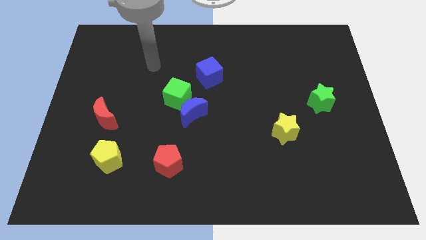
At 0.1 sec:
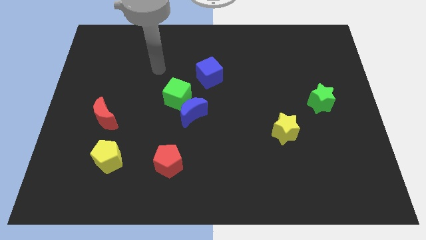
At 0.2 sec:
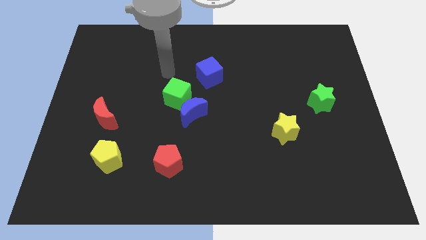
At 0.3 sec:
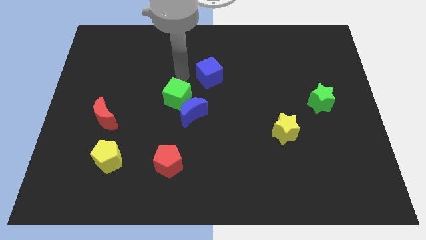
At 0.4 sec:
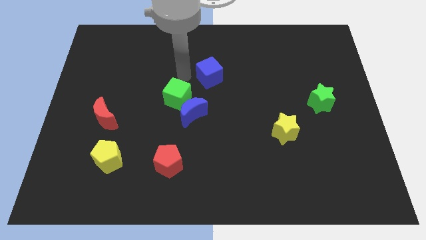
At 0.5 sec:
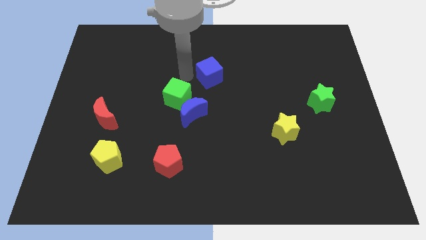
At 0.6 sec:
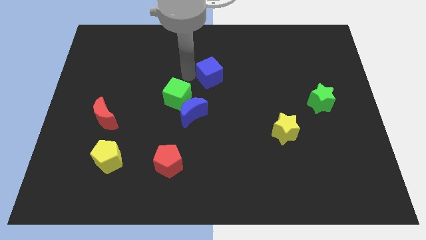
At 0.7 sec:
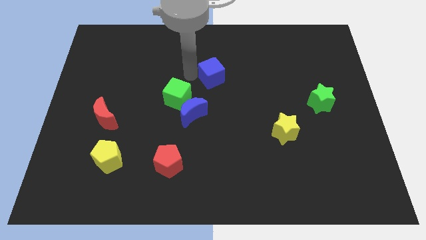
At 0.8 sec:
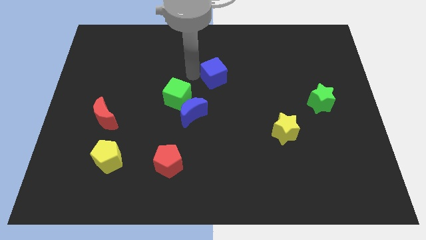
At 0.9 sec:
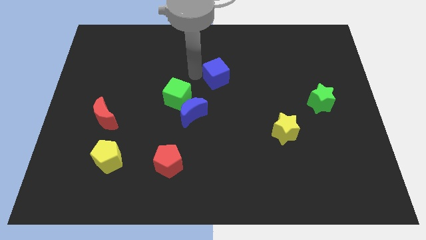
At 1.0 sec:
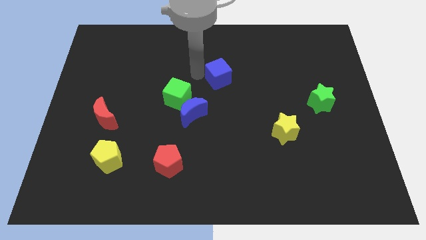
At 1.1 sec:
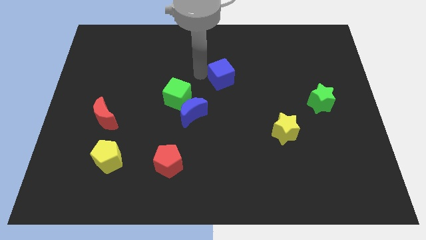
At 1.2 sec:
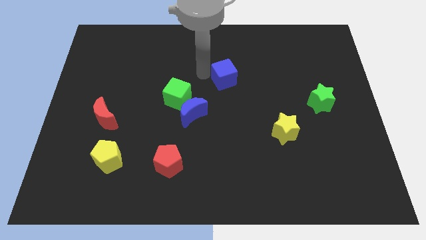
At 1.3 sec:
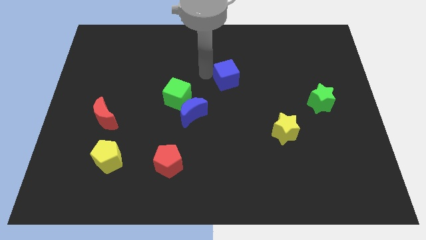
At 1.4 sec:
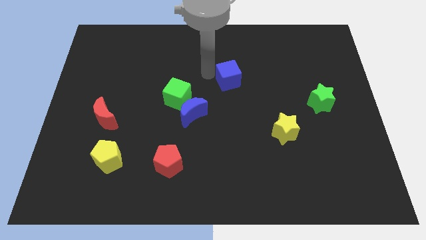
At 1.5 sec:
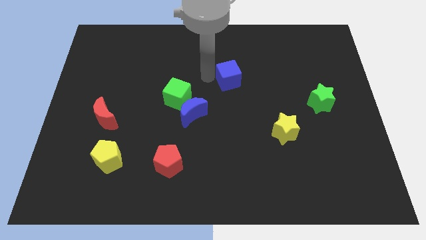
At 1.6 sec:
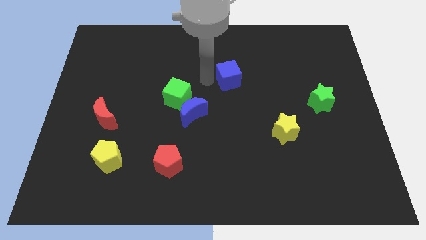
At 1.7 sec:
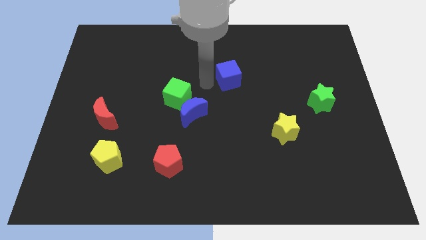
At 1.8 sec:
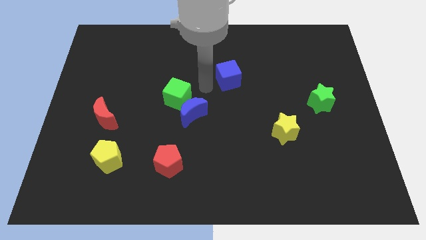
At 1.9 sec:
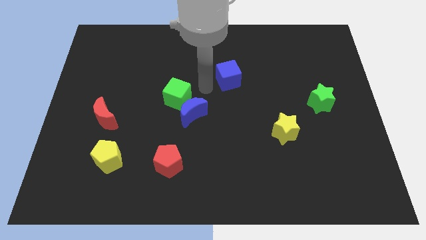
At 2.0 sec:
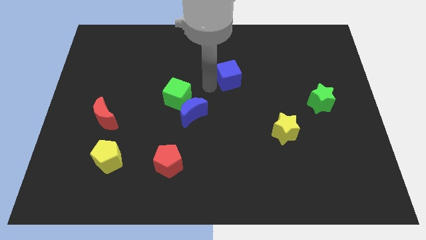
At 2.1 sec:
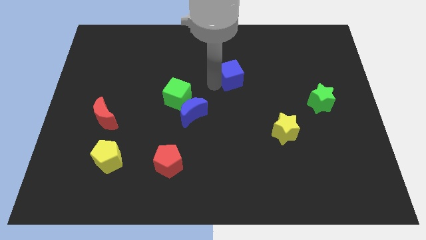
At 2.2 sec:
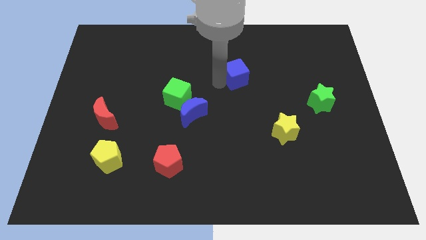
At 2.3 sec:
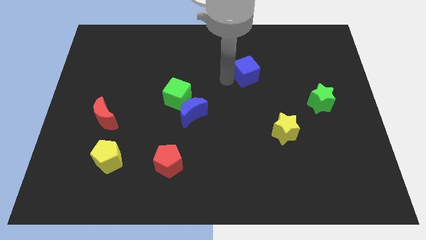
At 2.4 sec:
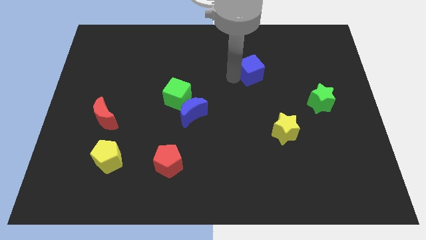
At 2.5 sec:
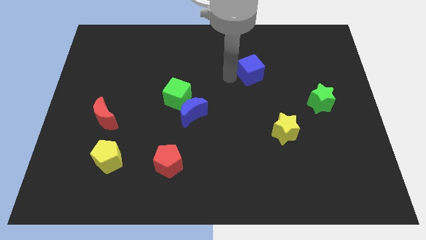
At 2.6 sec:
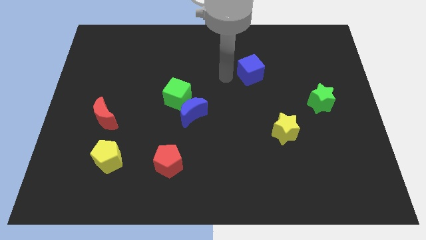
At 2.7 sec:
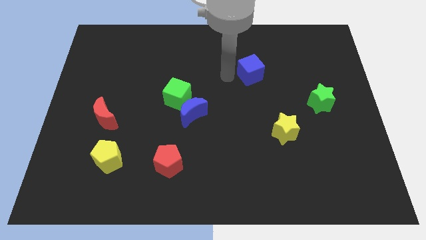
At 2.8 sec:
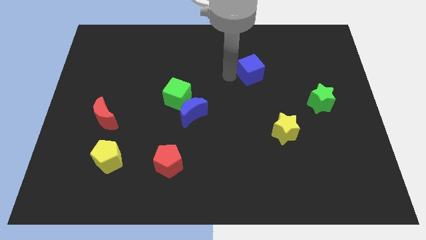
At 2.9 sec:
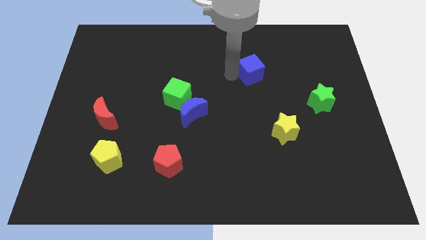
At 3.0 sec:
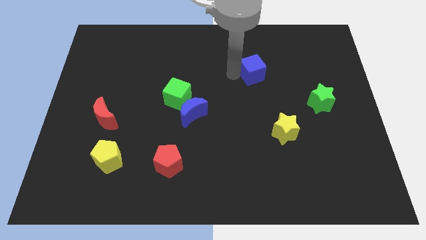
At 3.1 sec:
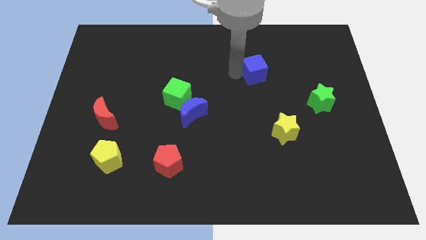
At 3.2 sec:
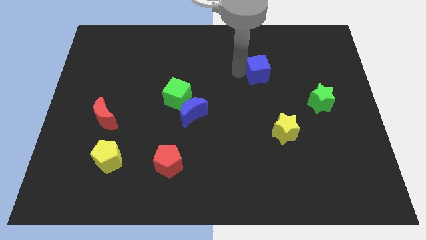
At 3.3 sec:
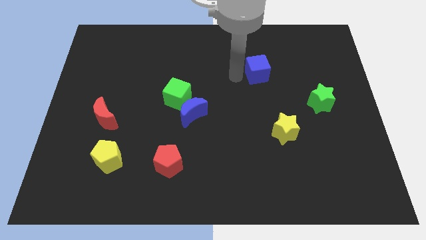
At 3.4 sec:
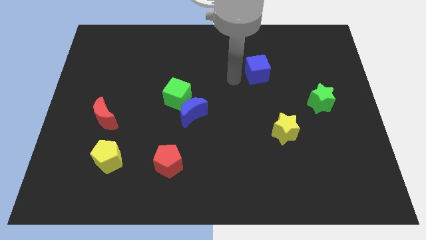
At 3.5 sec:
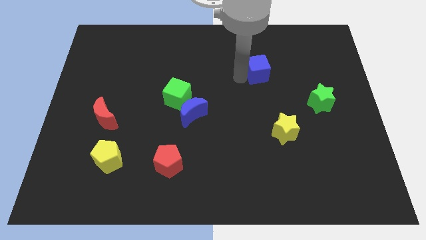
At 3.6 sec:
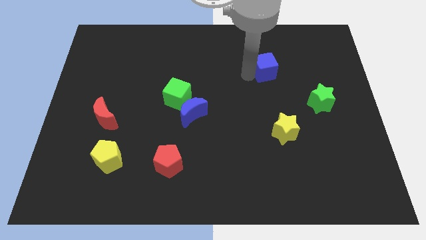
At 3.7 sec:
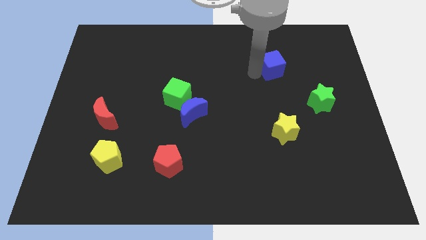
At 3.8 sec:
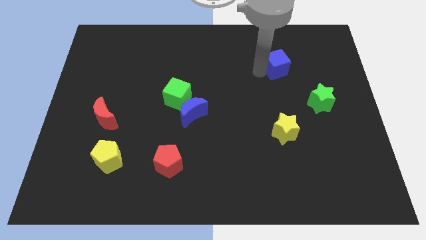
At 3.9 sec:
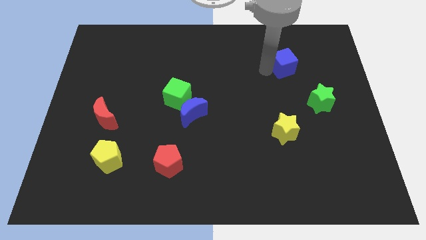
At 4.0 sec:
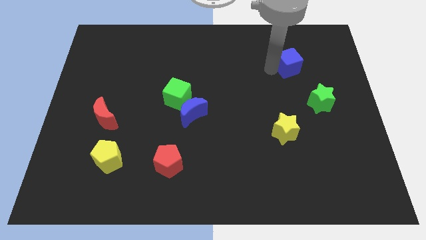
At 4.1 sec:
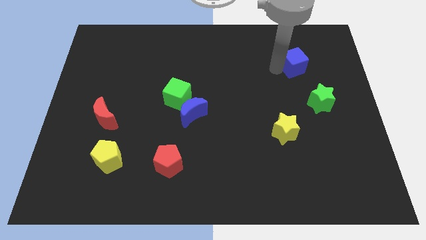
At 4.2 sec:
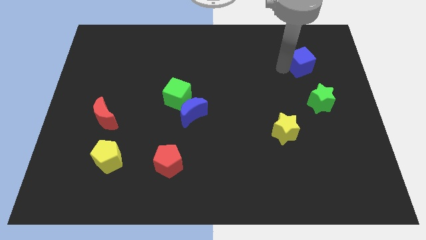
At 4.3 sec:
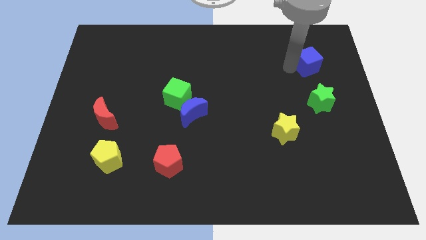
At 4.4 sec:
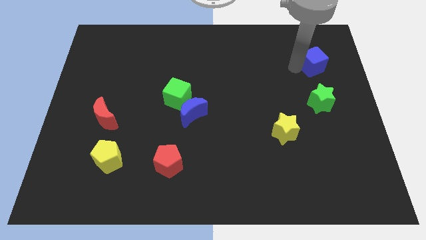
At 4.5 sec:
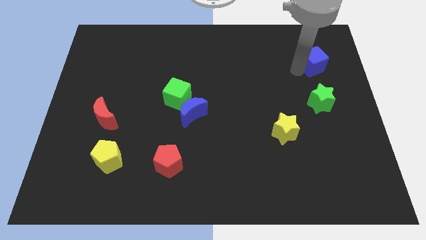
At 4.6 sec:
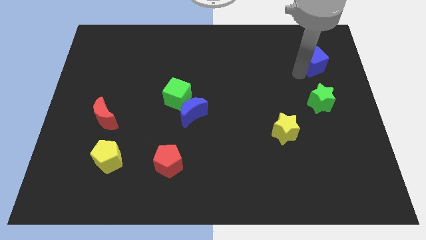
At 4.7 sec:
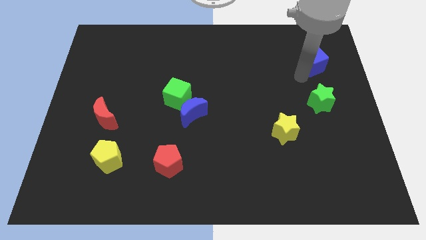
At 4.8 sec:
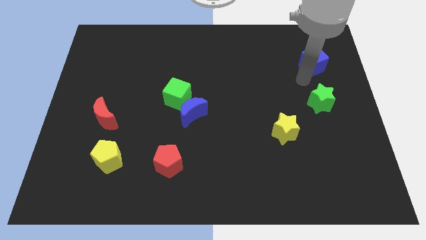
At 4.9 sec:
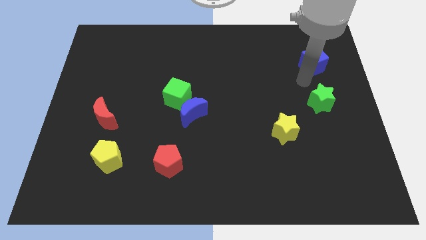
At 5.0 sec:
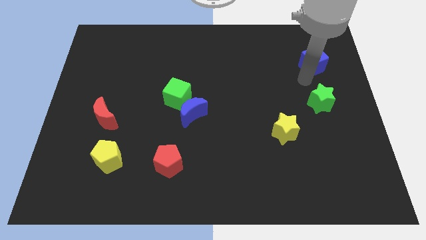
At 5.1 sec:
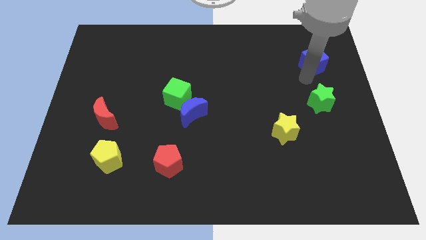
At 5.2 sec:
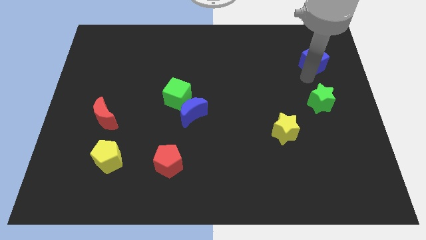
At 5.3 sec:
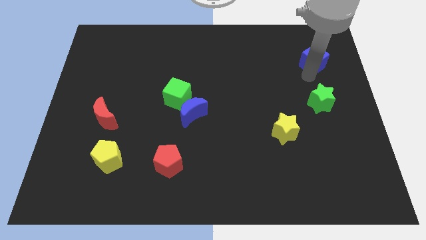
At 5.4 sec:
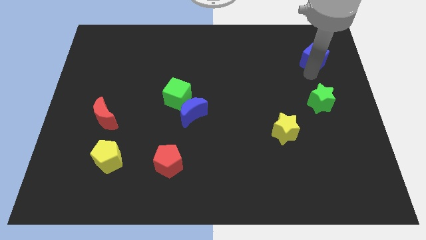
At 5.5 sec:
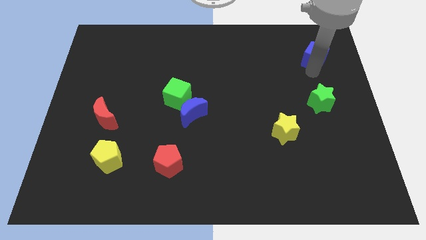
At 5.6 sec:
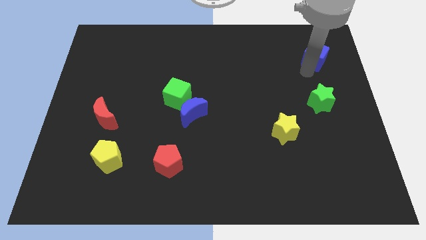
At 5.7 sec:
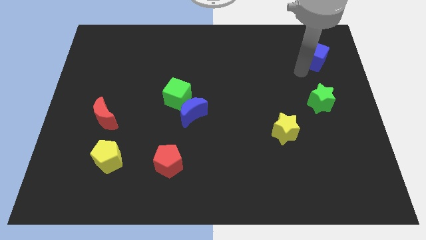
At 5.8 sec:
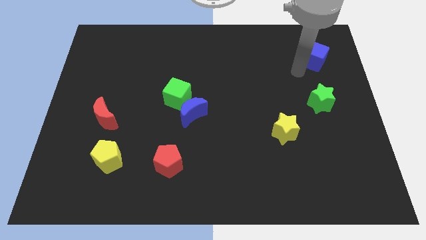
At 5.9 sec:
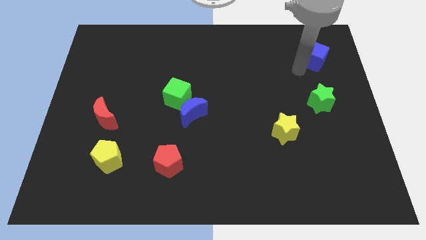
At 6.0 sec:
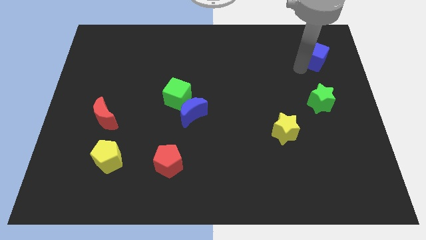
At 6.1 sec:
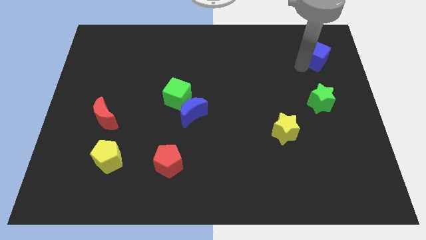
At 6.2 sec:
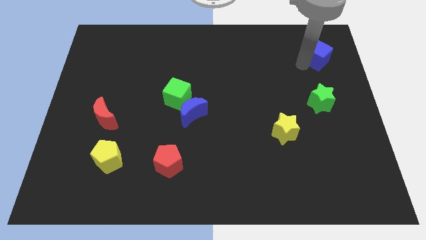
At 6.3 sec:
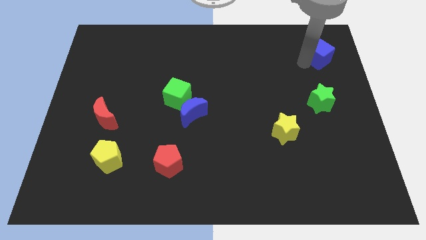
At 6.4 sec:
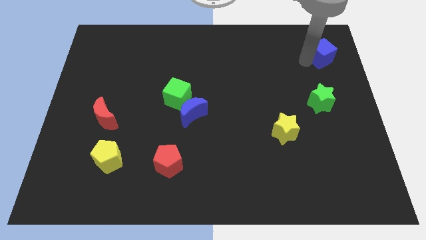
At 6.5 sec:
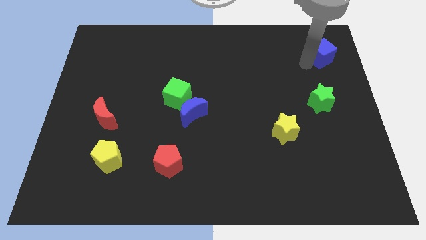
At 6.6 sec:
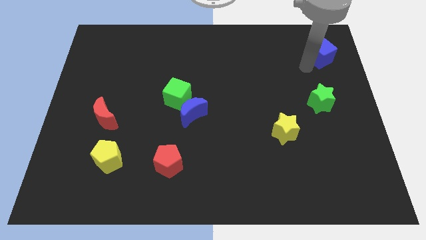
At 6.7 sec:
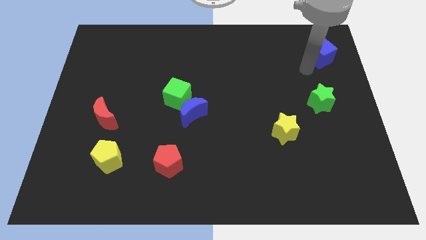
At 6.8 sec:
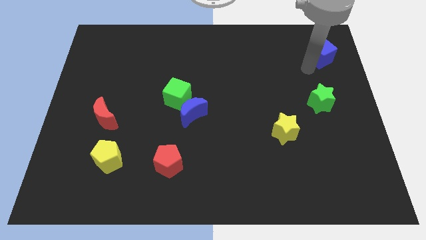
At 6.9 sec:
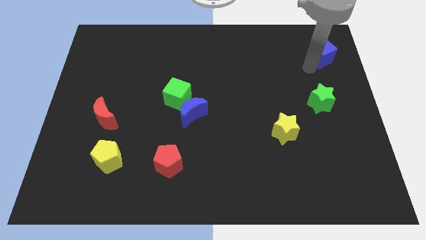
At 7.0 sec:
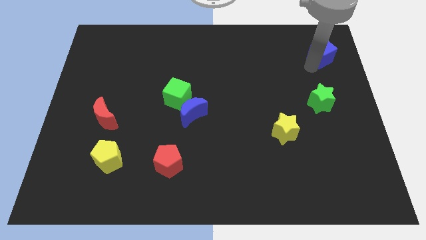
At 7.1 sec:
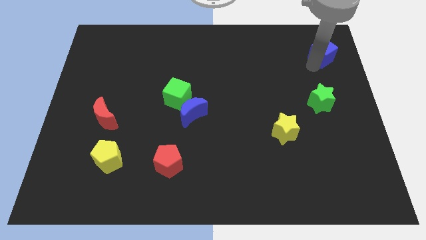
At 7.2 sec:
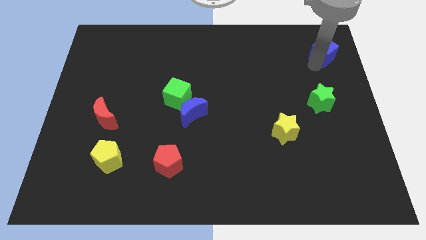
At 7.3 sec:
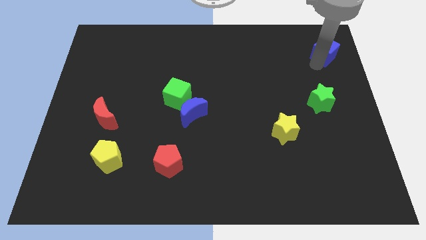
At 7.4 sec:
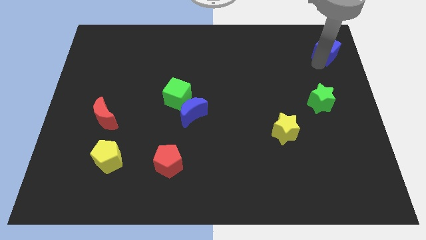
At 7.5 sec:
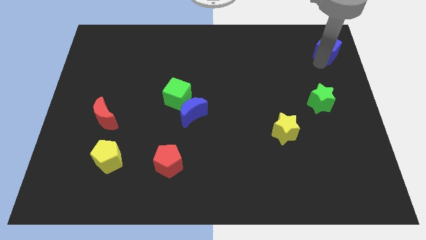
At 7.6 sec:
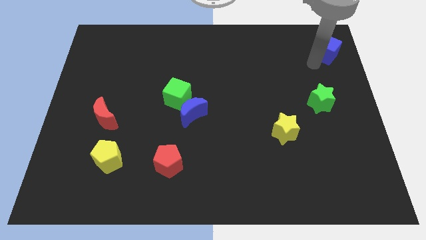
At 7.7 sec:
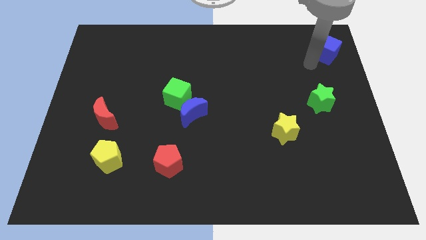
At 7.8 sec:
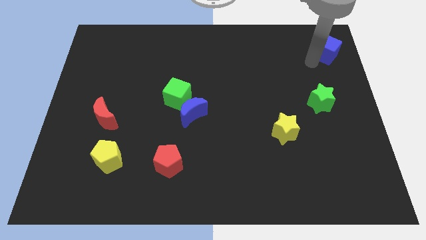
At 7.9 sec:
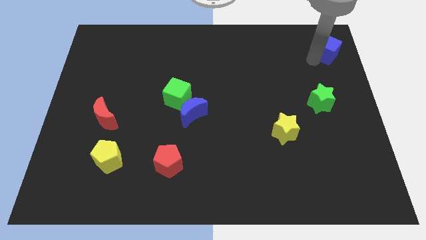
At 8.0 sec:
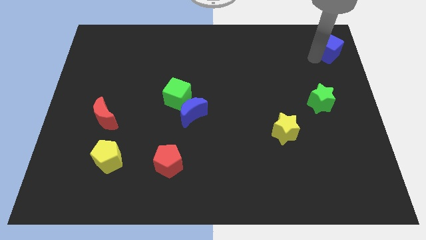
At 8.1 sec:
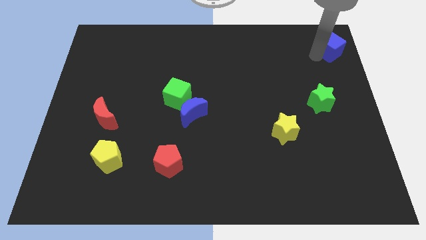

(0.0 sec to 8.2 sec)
move the blue cube to the top right corner
